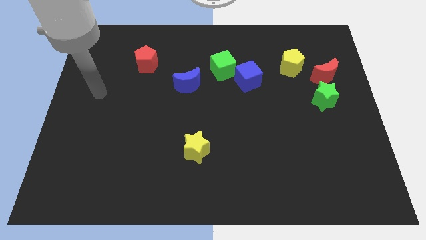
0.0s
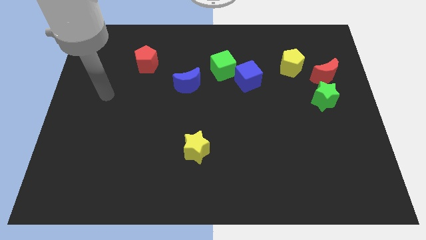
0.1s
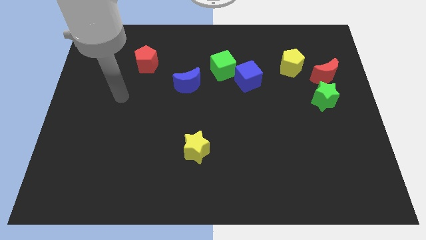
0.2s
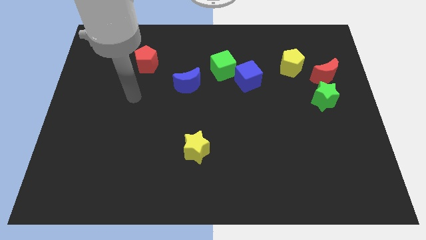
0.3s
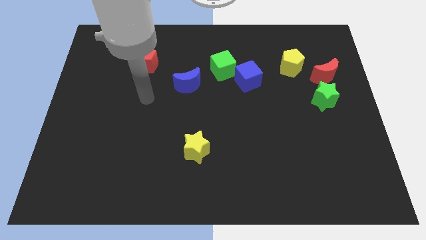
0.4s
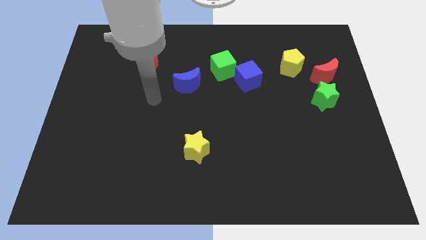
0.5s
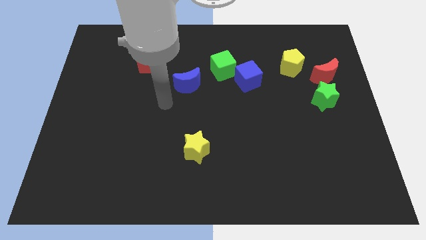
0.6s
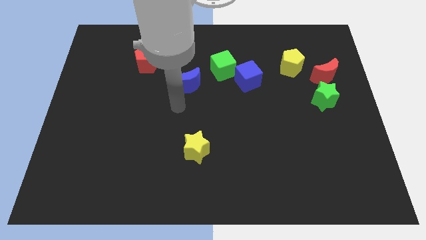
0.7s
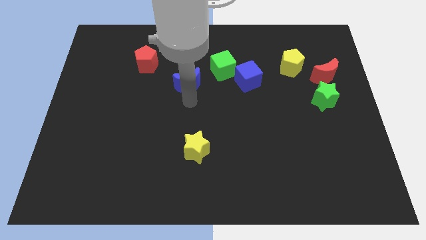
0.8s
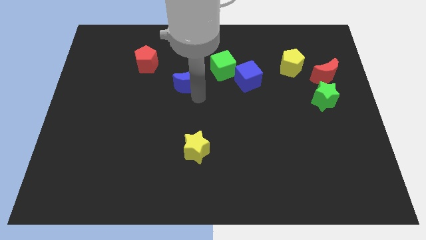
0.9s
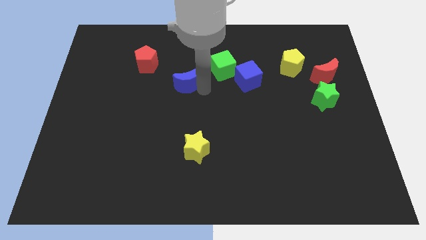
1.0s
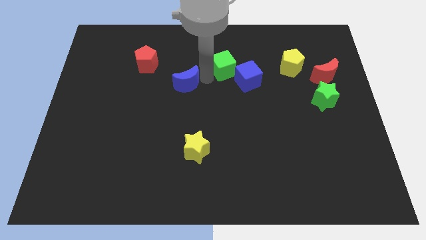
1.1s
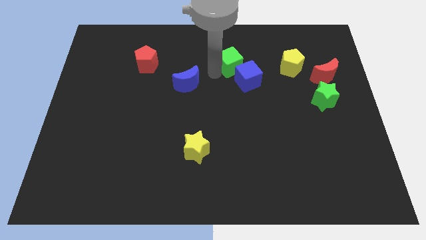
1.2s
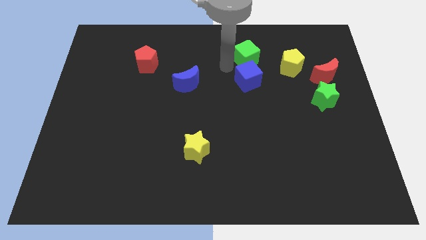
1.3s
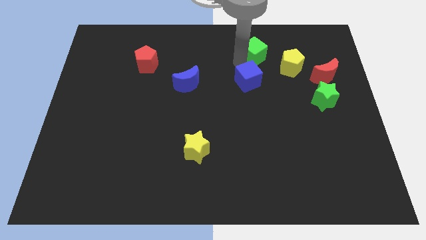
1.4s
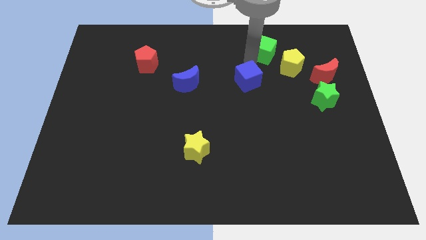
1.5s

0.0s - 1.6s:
pull the blue cube apart from the green cube

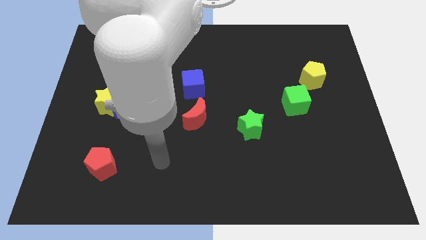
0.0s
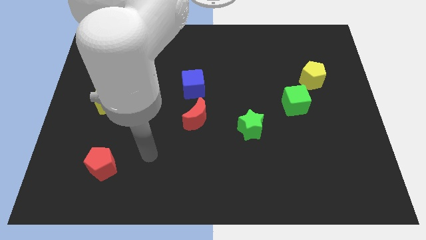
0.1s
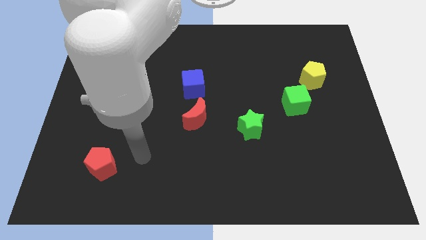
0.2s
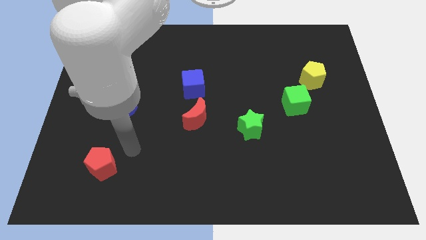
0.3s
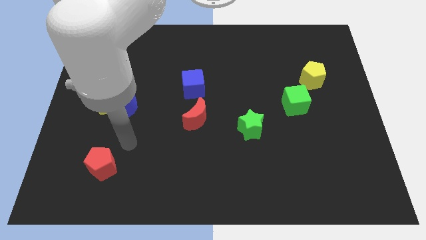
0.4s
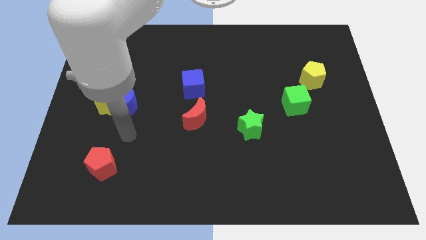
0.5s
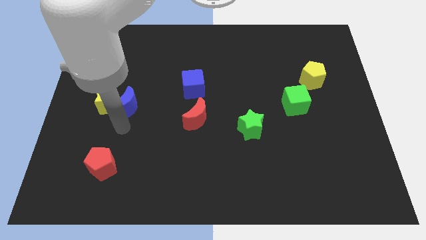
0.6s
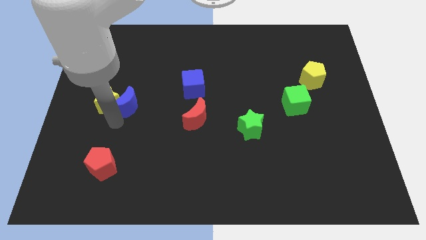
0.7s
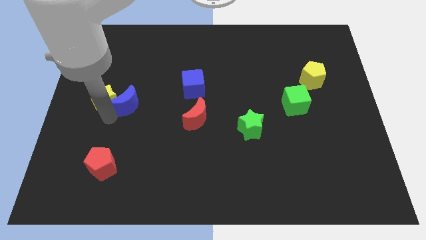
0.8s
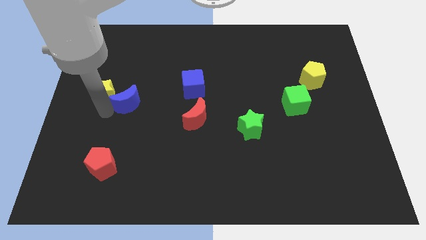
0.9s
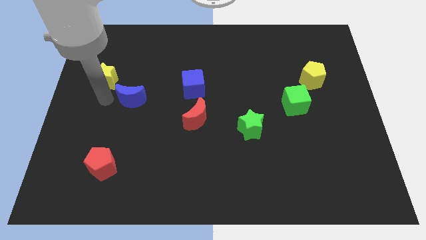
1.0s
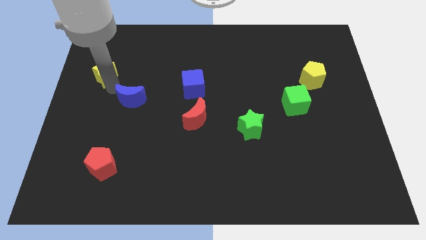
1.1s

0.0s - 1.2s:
move the blue moon away from the yellow star

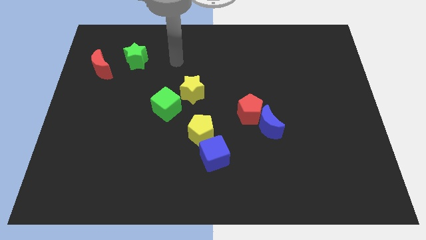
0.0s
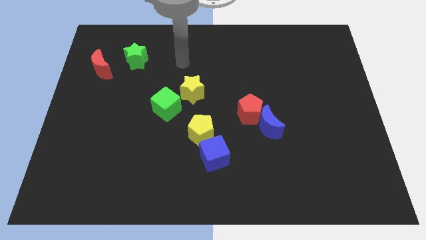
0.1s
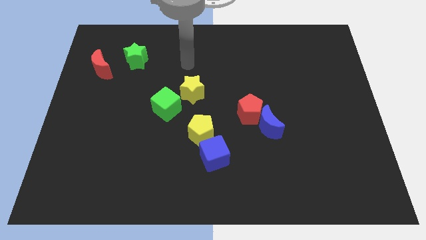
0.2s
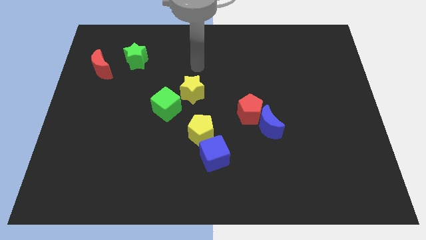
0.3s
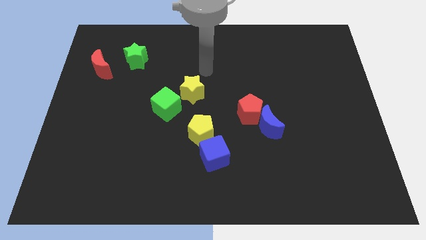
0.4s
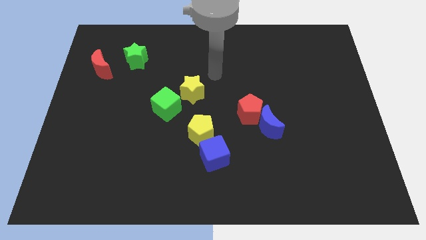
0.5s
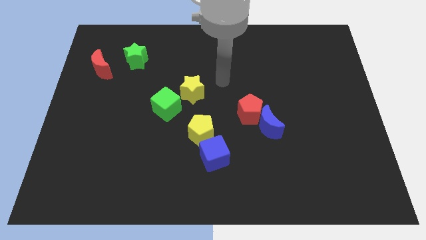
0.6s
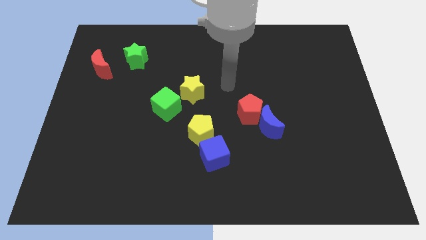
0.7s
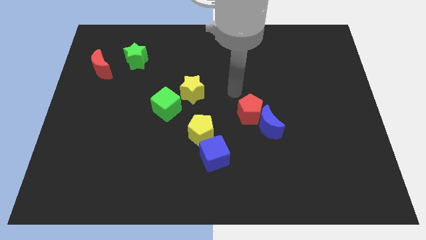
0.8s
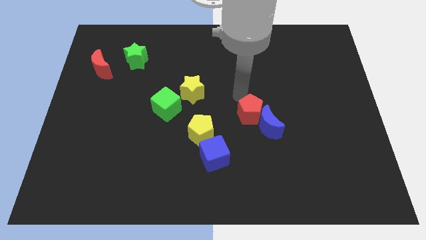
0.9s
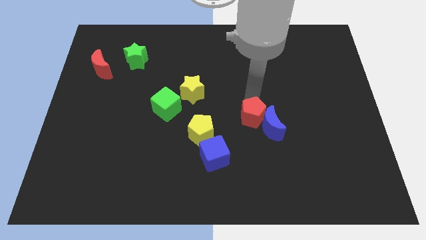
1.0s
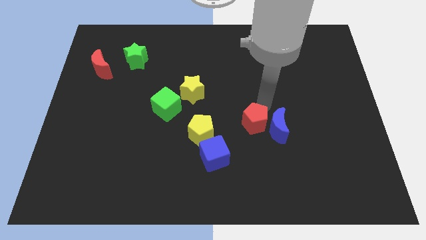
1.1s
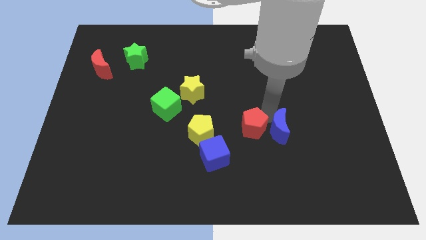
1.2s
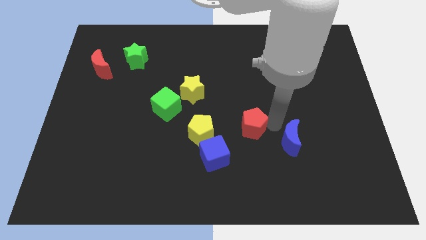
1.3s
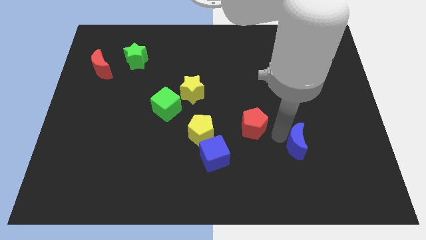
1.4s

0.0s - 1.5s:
separate the red pentagon from the blue moon

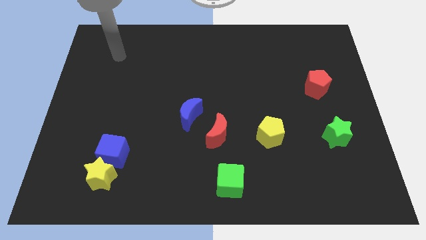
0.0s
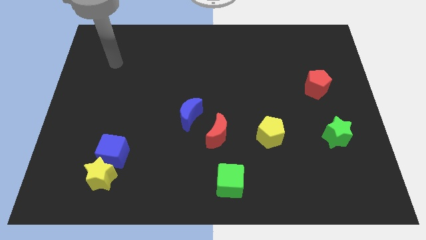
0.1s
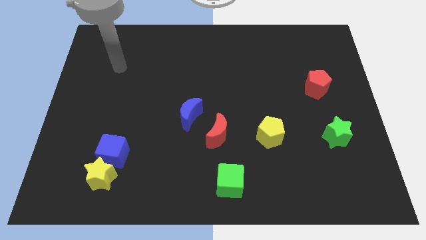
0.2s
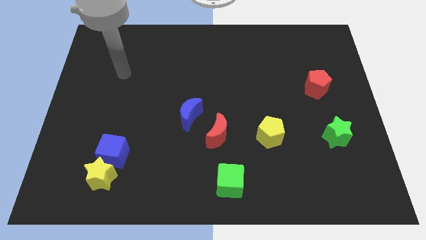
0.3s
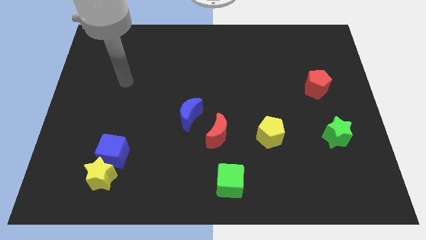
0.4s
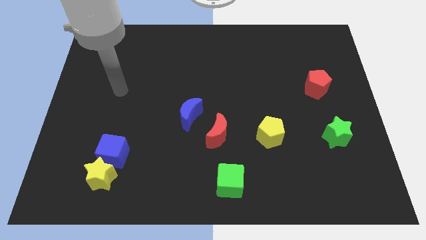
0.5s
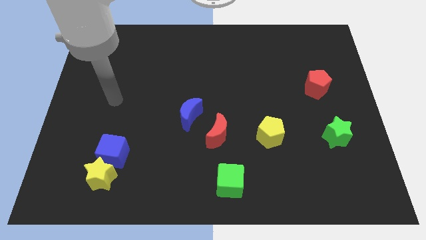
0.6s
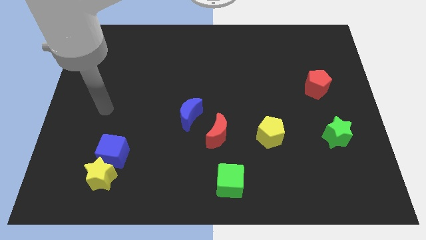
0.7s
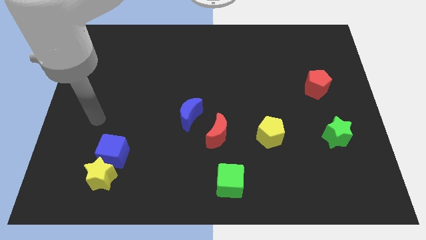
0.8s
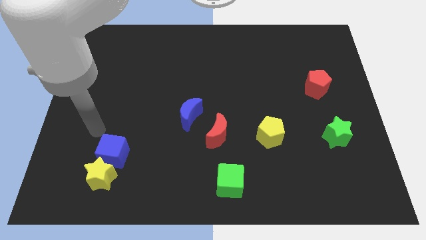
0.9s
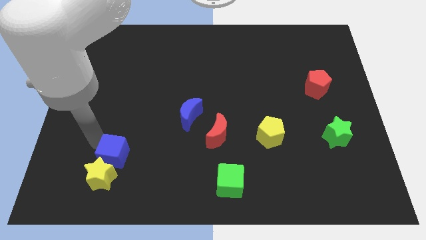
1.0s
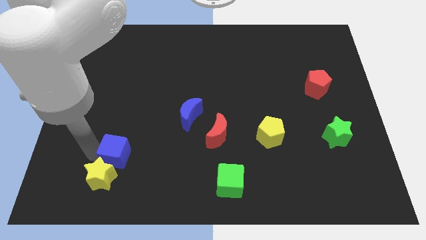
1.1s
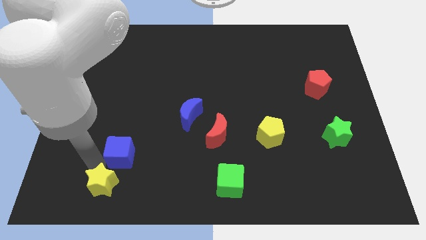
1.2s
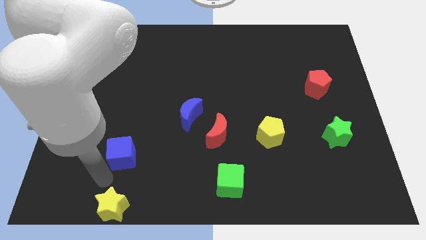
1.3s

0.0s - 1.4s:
move the blue cube away from the yellow star

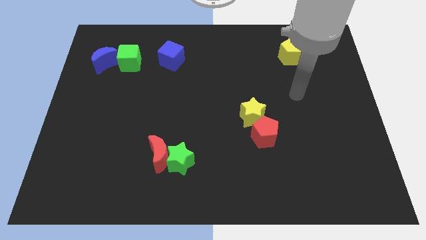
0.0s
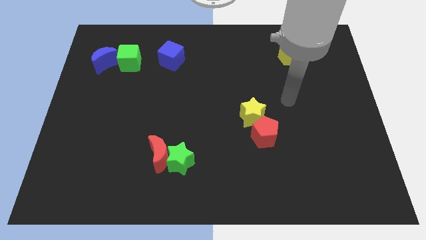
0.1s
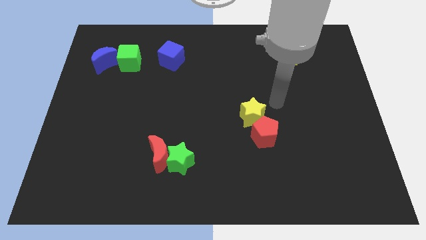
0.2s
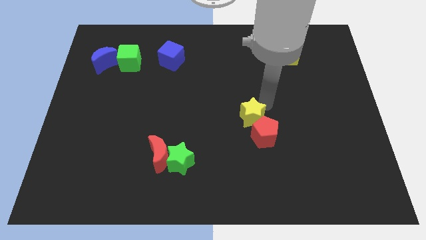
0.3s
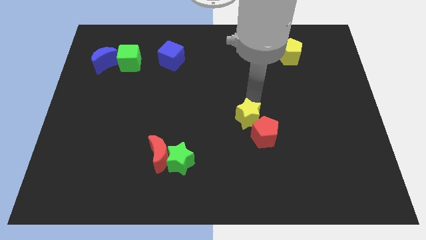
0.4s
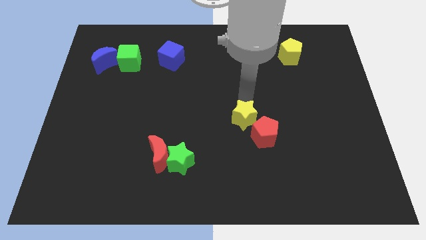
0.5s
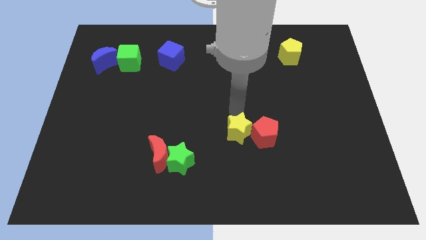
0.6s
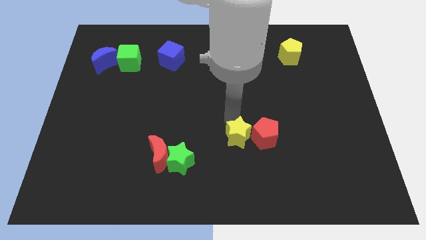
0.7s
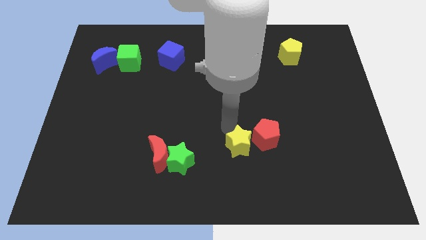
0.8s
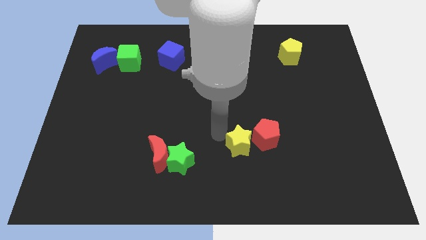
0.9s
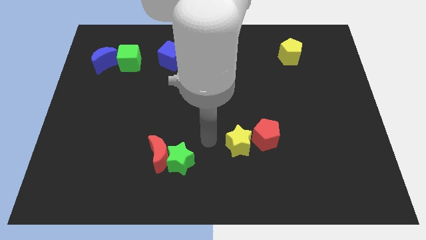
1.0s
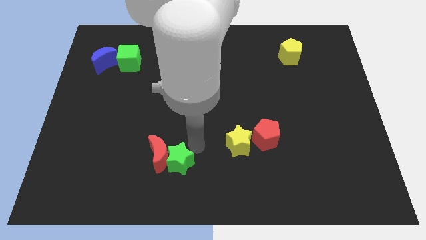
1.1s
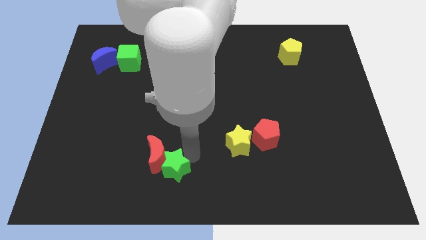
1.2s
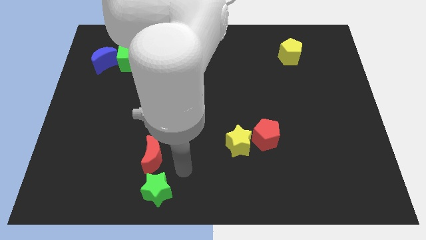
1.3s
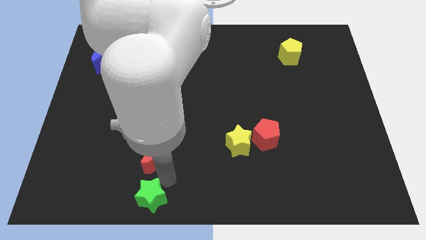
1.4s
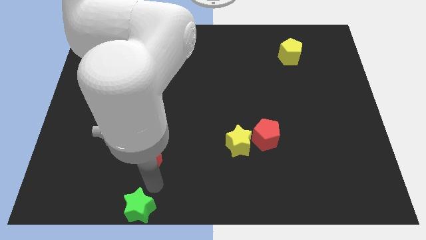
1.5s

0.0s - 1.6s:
pull the red moon apart from the green star

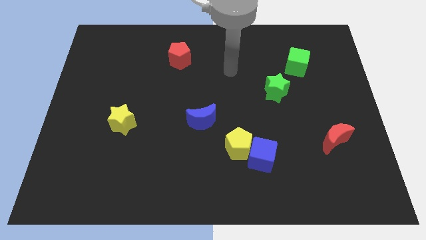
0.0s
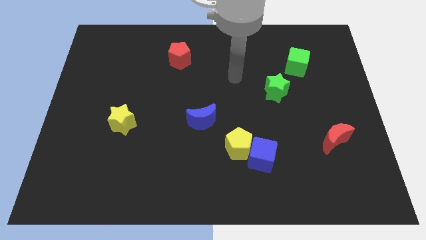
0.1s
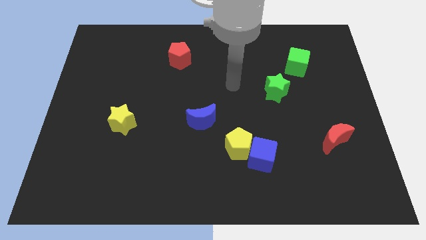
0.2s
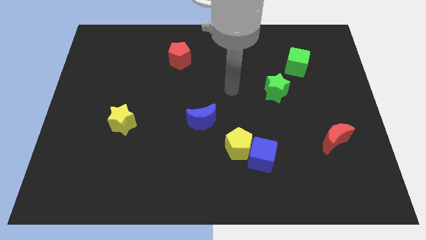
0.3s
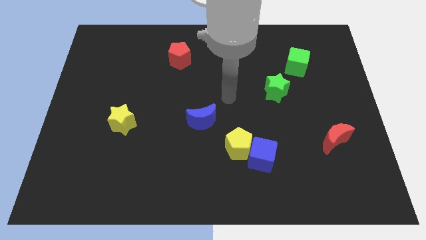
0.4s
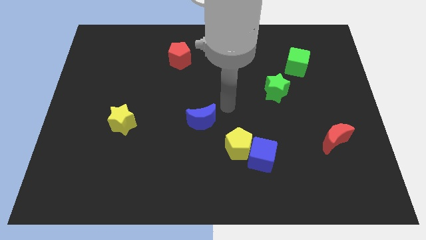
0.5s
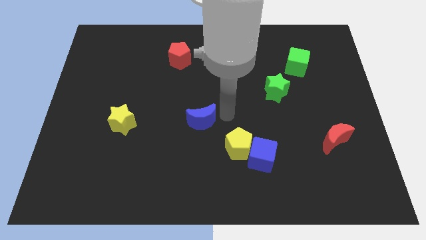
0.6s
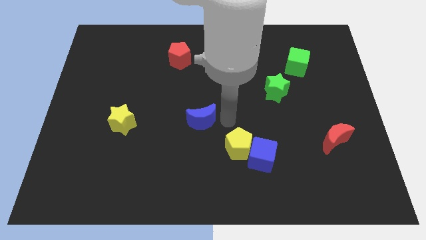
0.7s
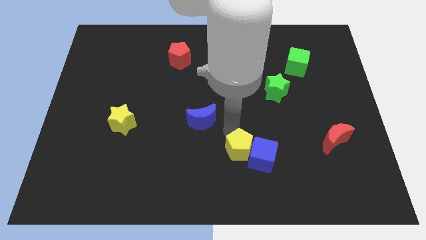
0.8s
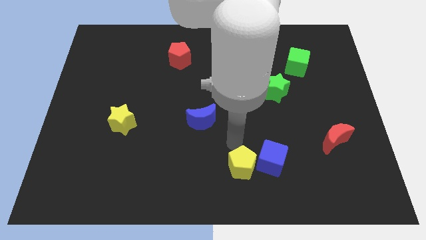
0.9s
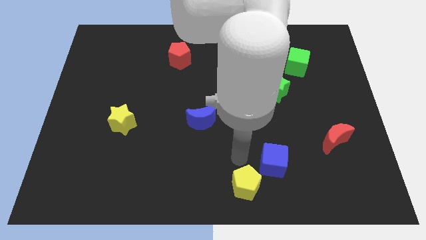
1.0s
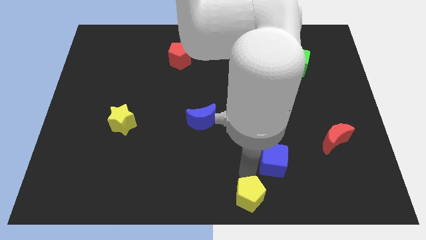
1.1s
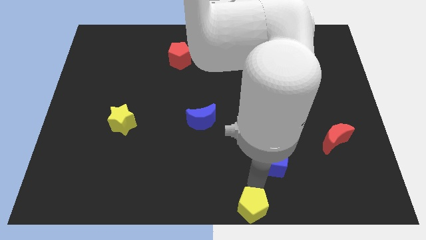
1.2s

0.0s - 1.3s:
pull the blue cube apart from the yellow pentagon

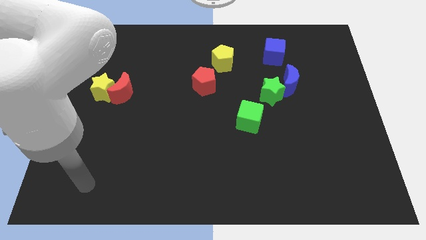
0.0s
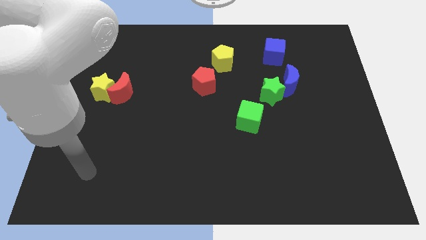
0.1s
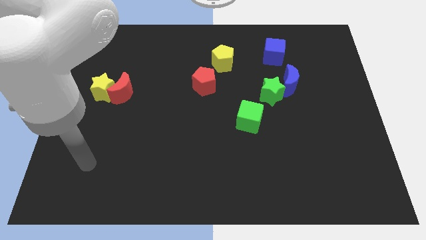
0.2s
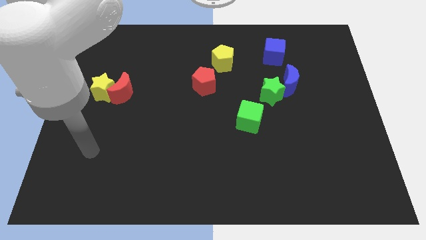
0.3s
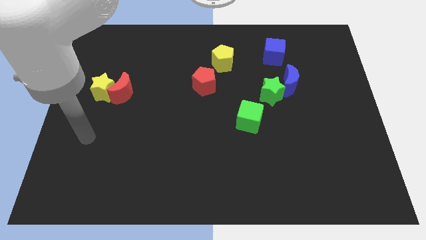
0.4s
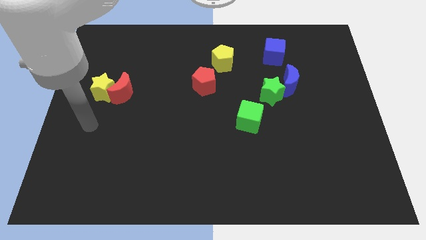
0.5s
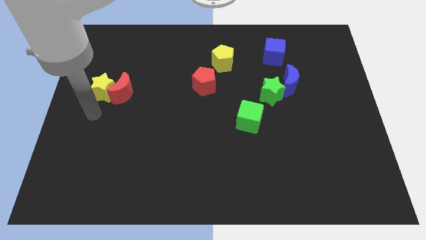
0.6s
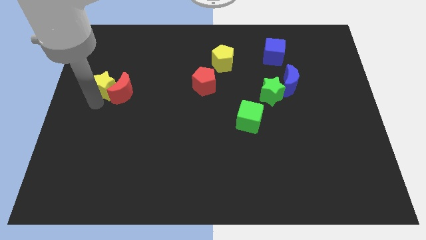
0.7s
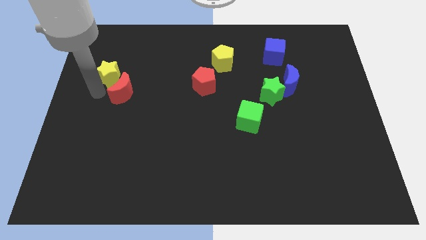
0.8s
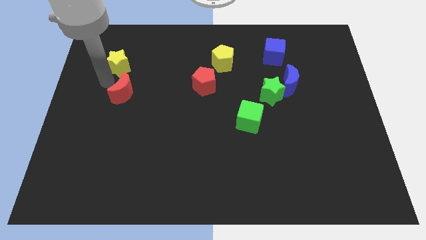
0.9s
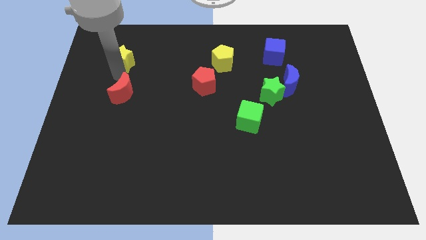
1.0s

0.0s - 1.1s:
separate the red moon from the yellow star
